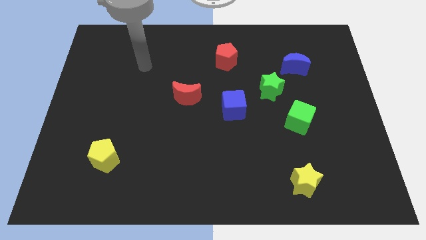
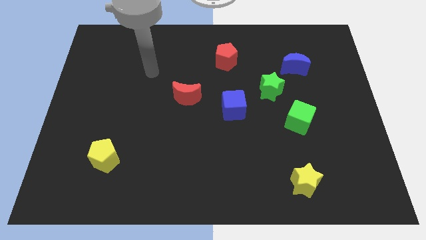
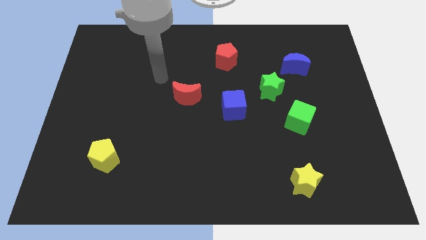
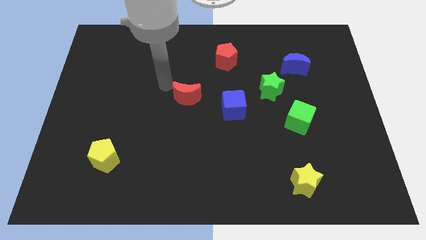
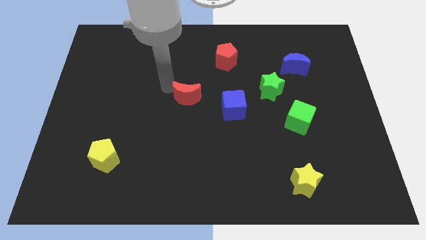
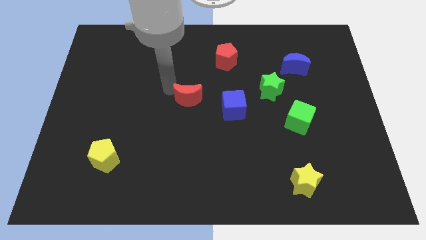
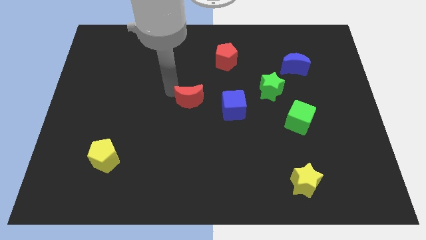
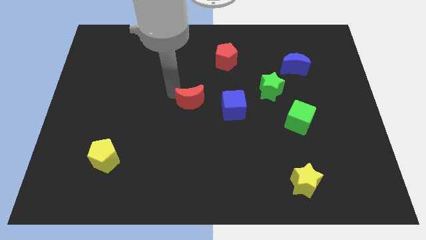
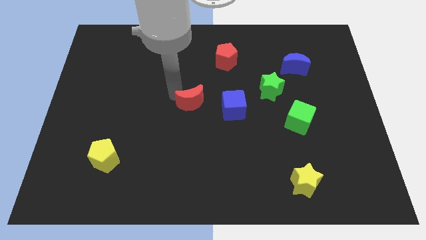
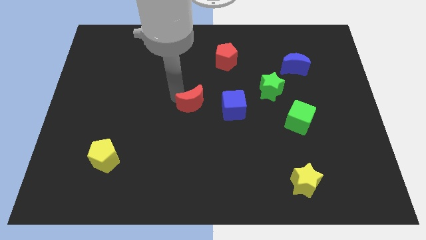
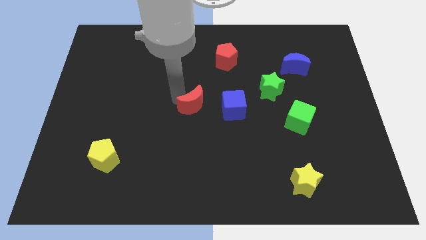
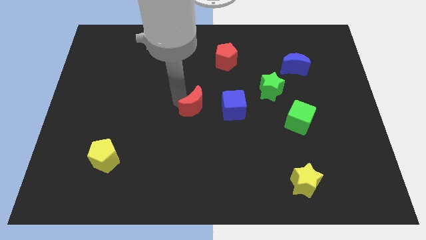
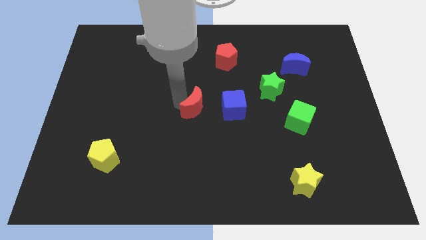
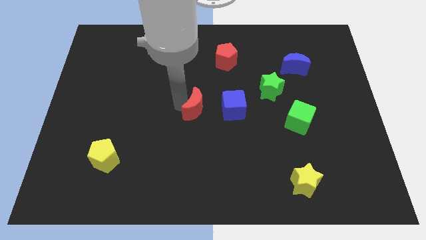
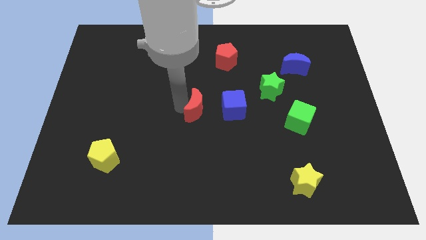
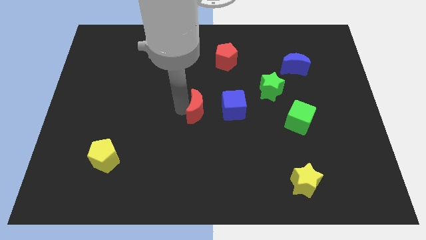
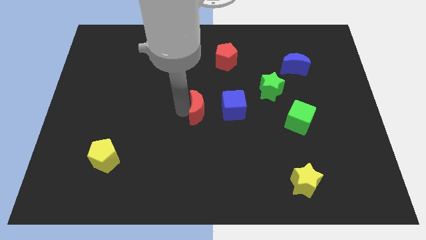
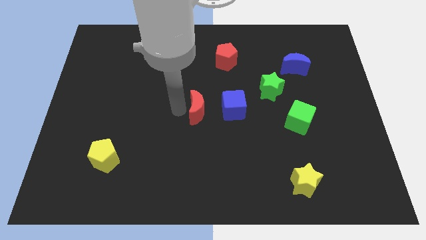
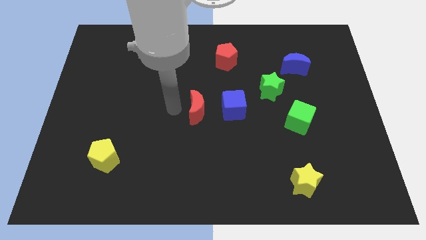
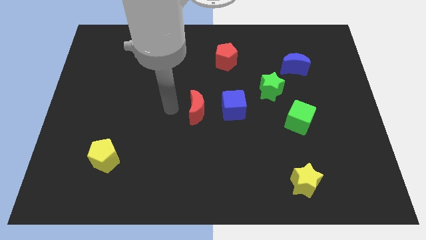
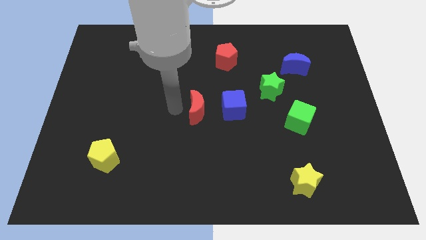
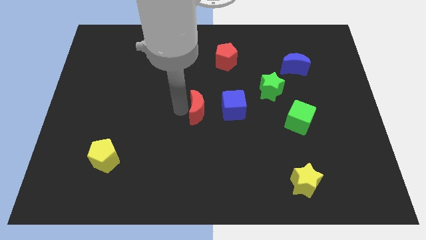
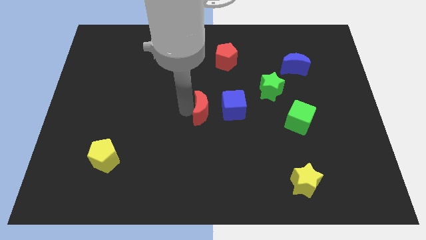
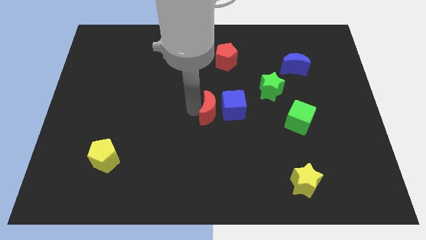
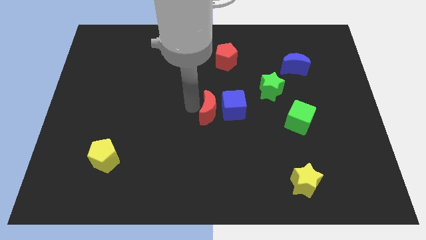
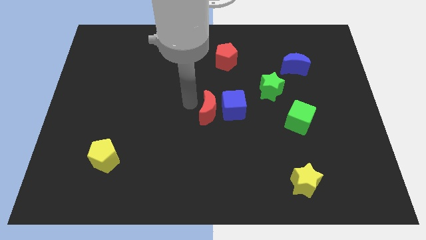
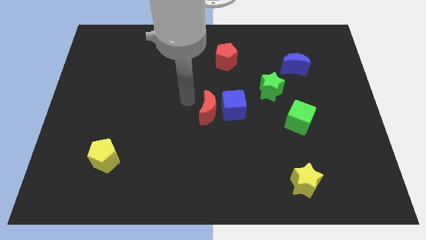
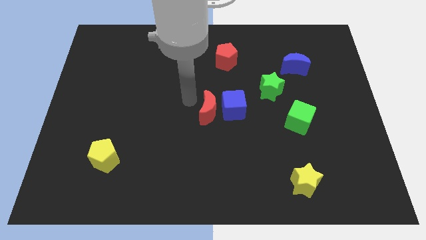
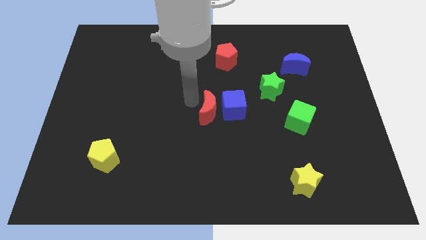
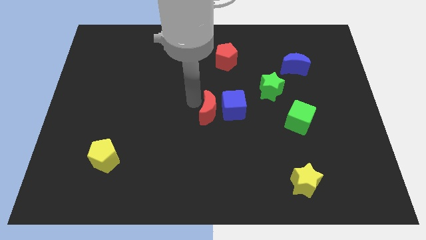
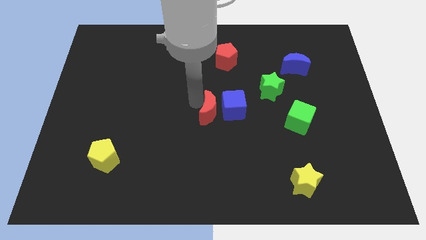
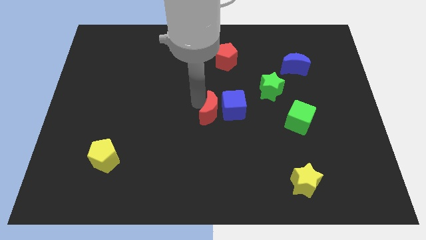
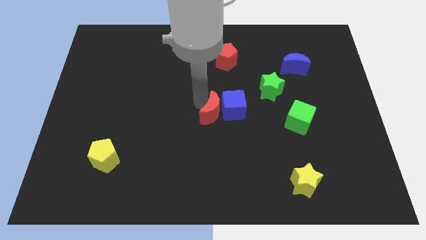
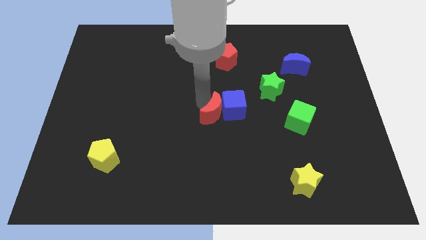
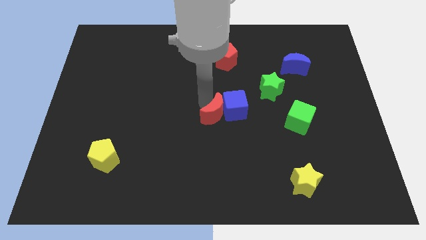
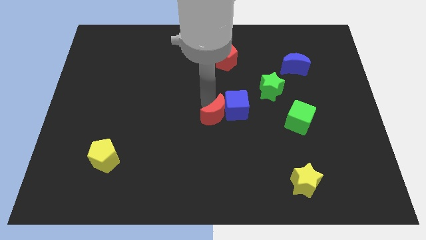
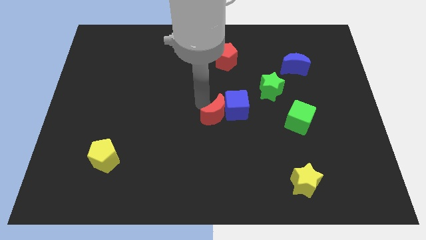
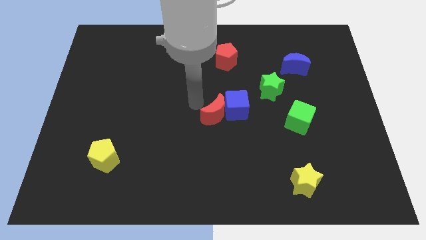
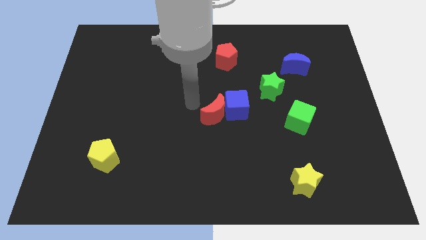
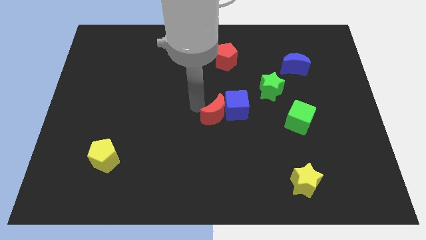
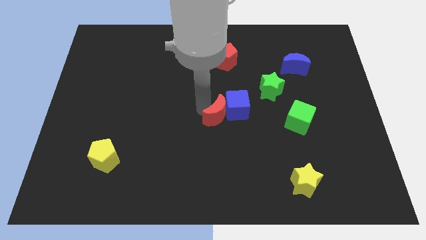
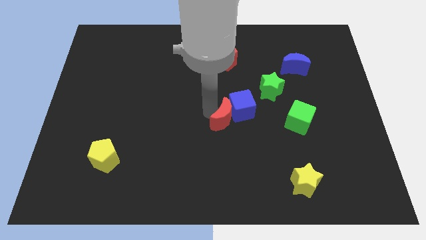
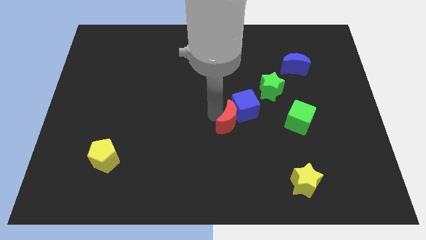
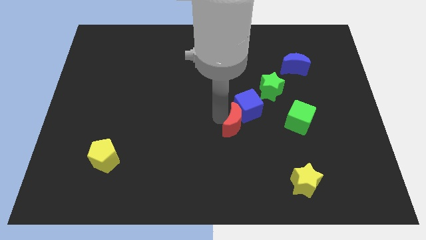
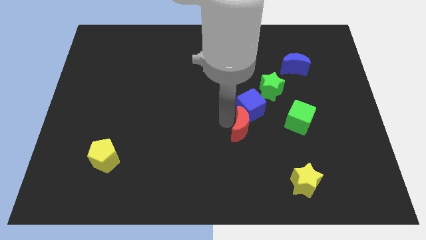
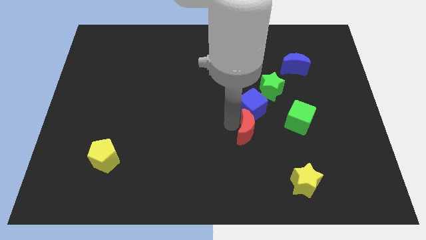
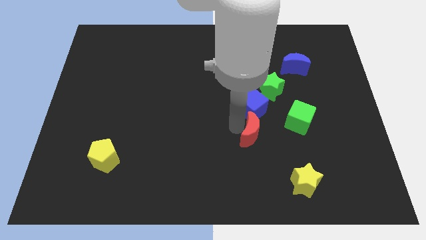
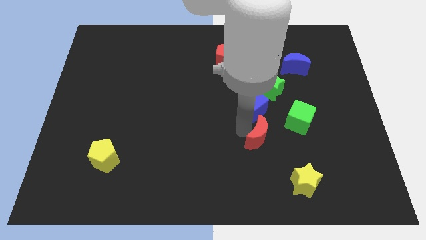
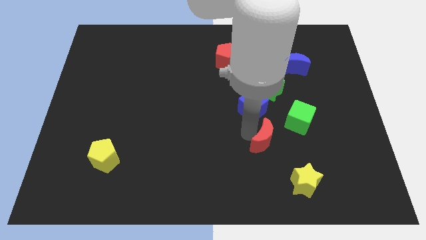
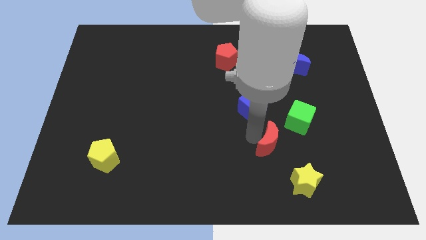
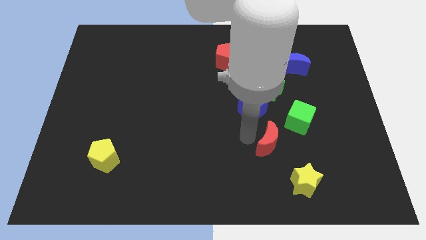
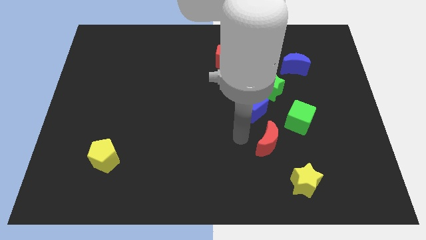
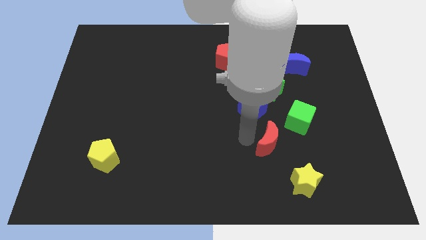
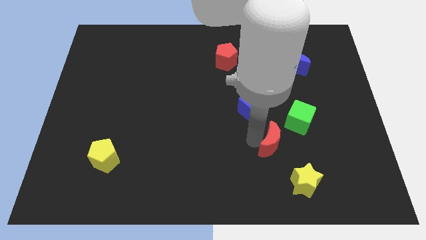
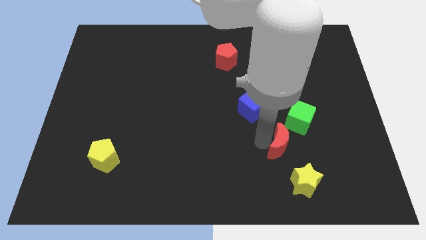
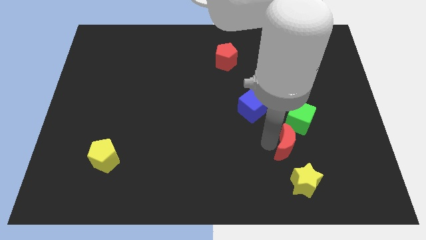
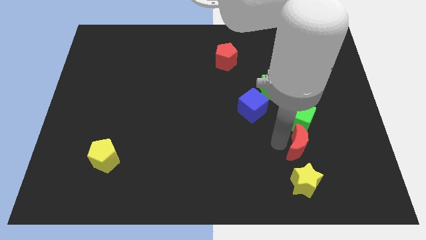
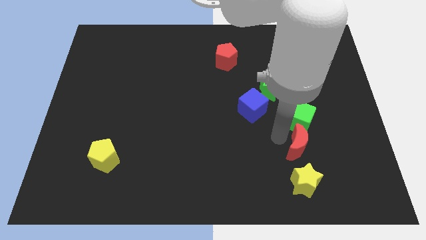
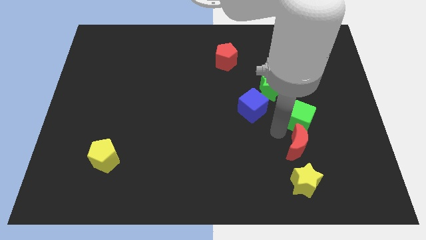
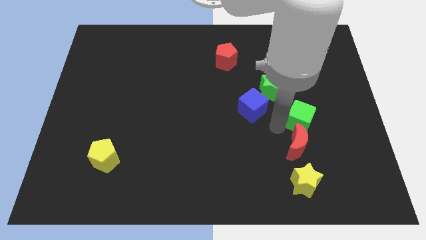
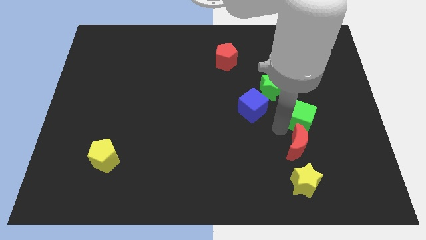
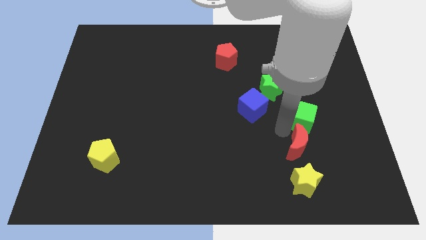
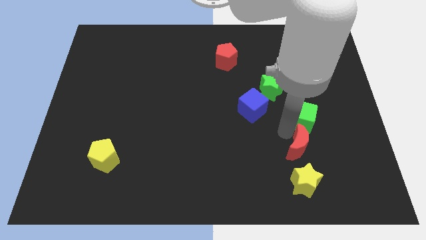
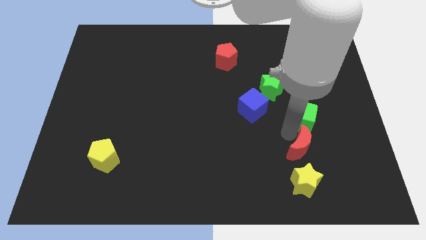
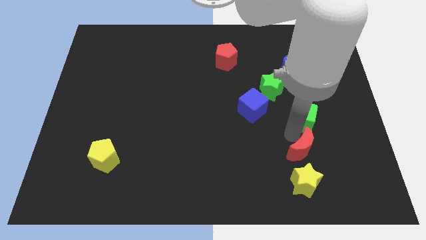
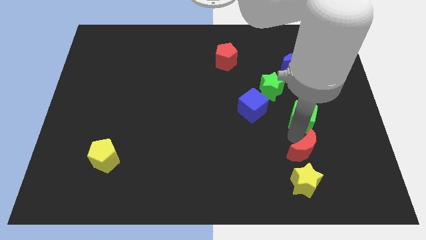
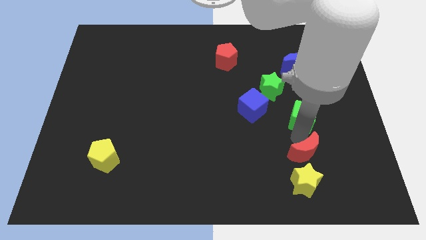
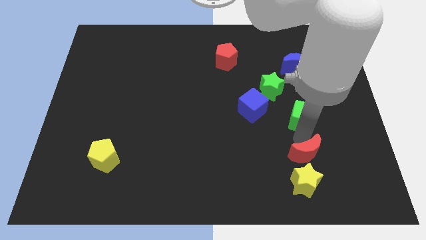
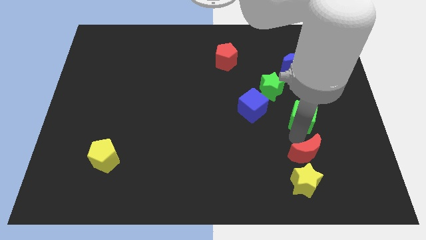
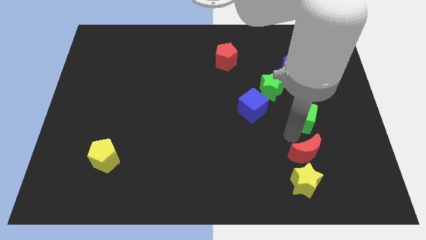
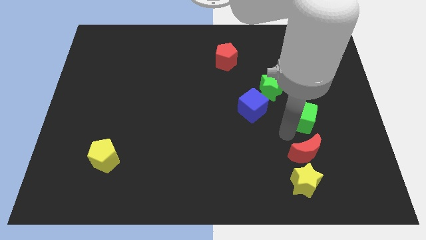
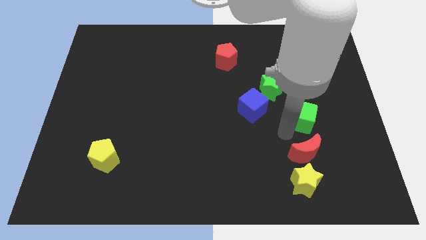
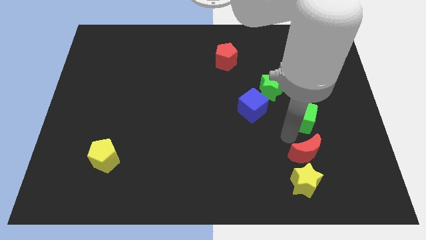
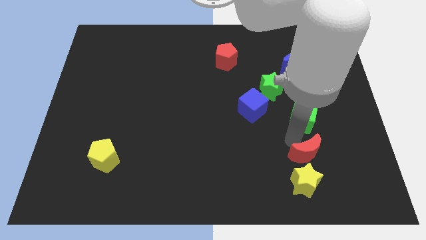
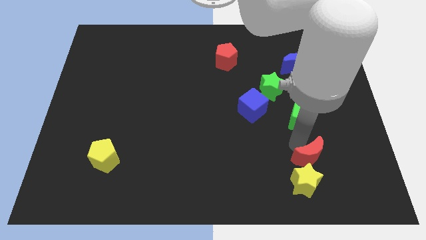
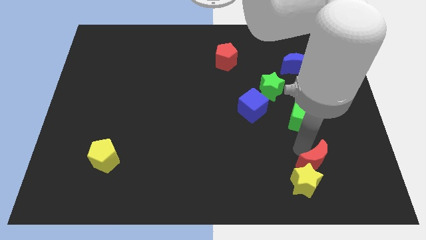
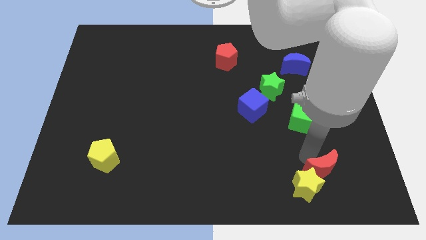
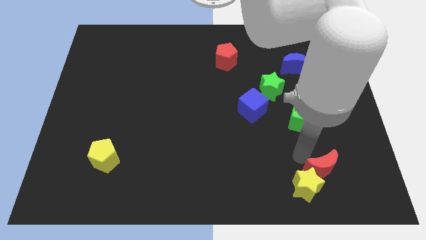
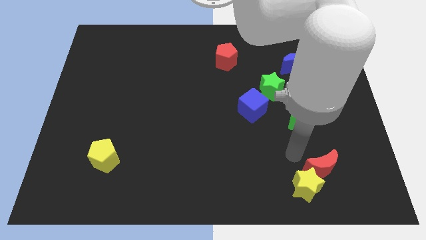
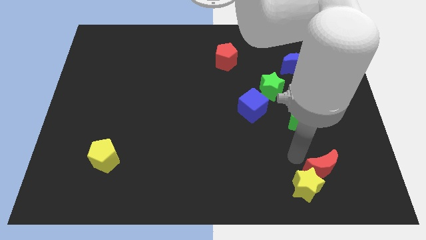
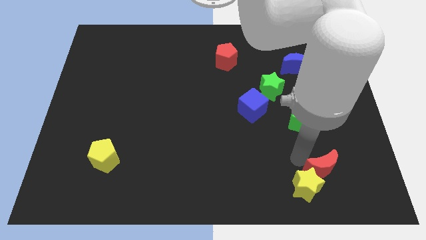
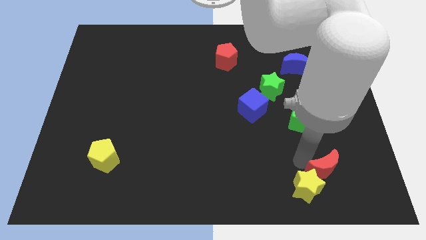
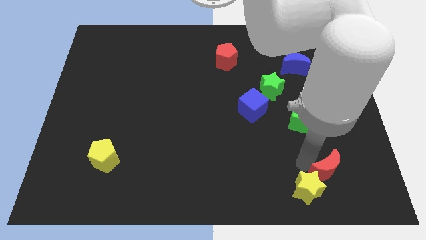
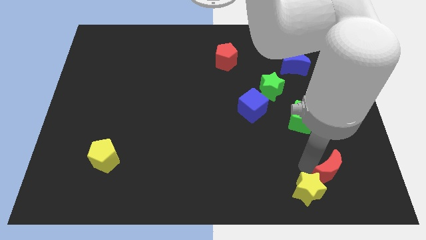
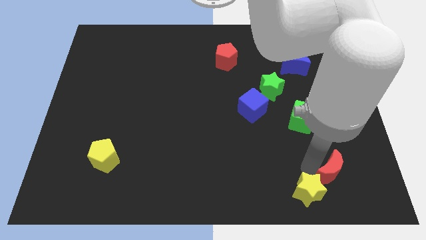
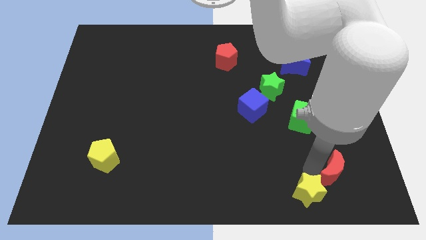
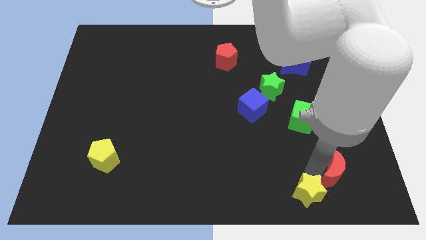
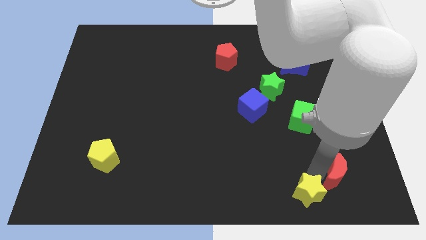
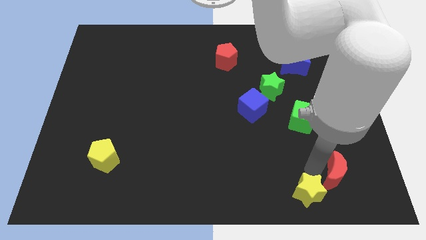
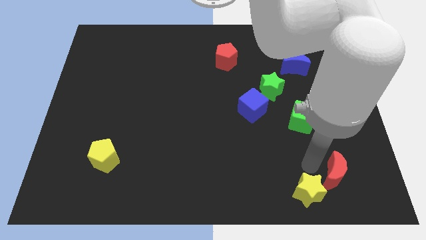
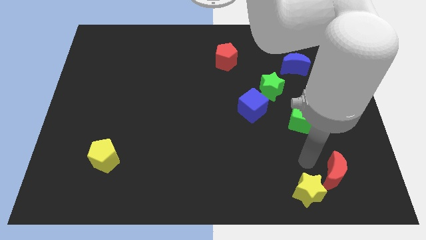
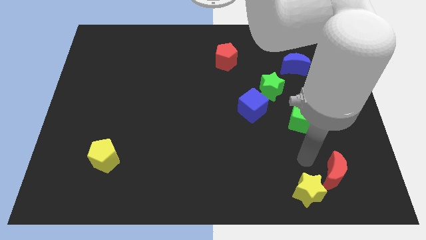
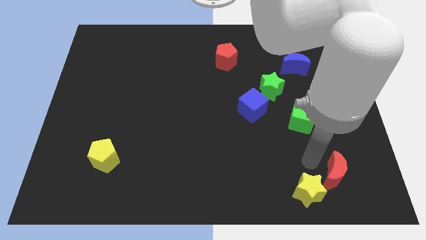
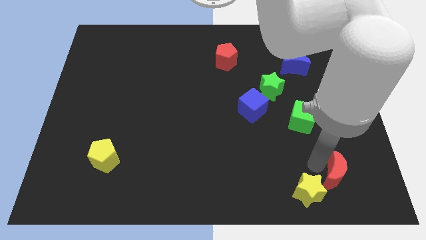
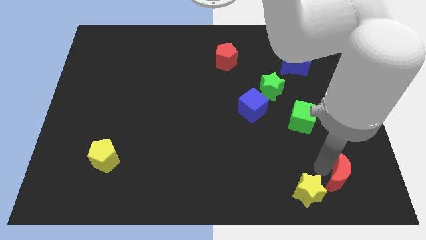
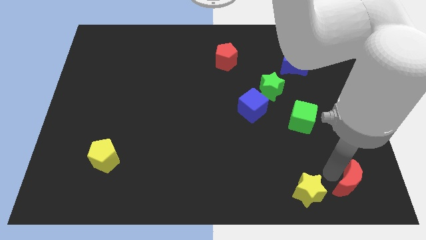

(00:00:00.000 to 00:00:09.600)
put the red moon to the bottom right
